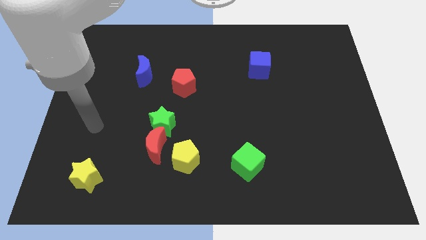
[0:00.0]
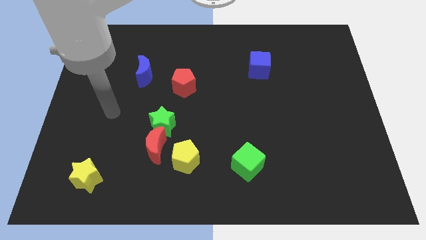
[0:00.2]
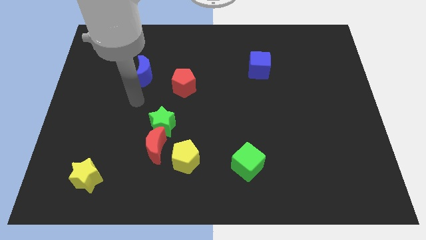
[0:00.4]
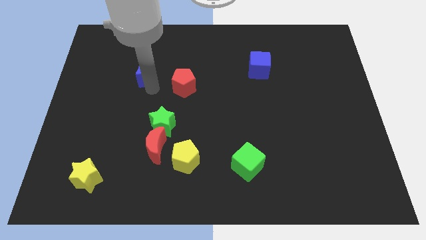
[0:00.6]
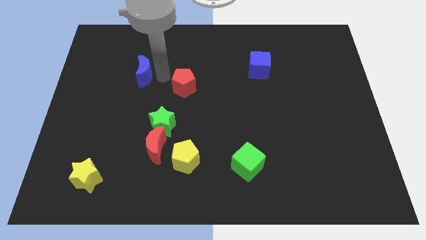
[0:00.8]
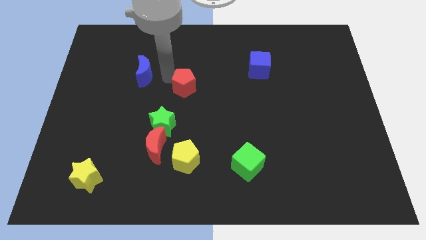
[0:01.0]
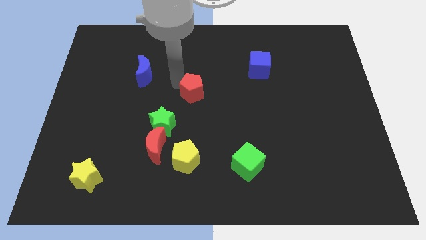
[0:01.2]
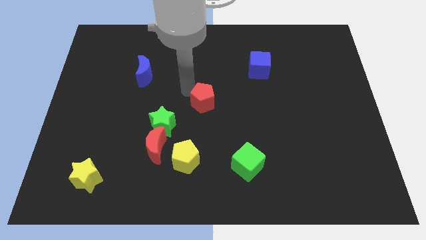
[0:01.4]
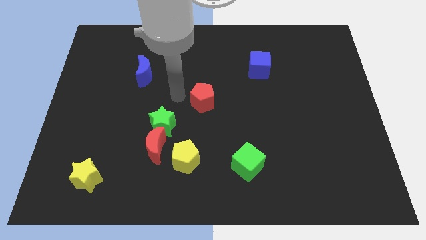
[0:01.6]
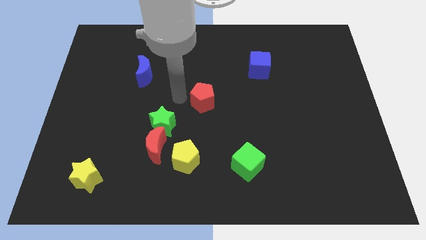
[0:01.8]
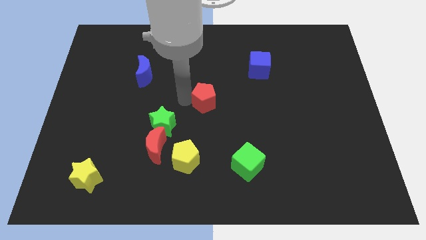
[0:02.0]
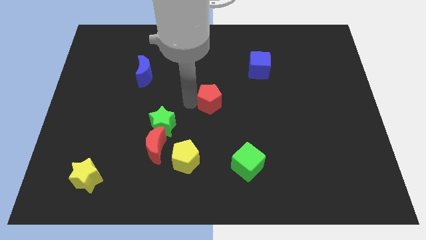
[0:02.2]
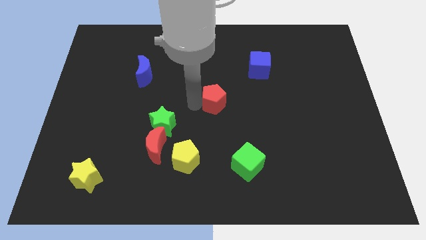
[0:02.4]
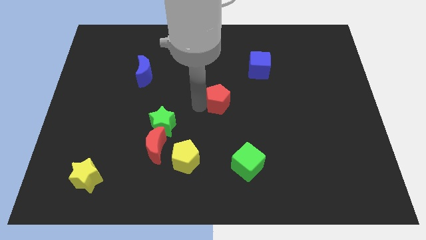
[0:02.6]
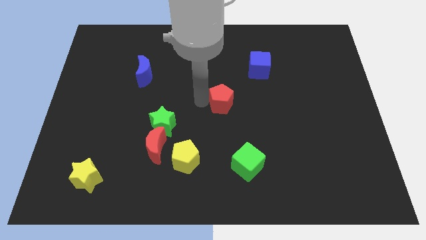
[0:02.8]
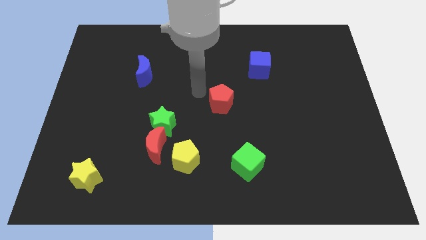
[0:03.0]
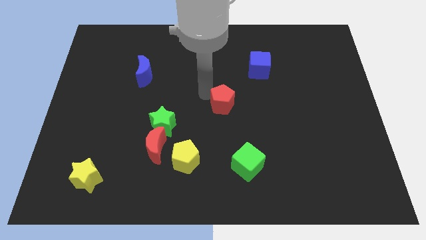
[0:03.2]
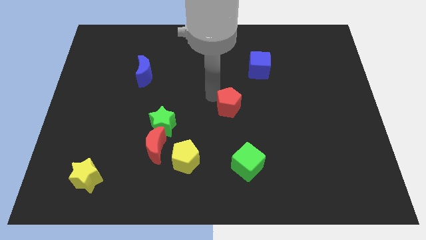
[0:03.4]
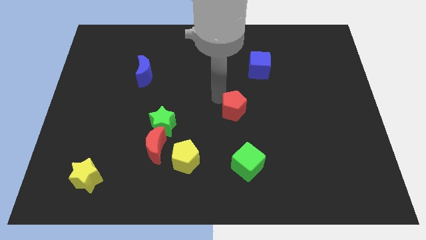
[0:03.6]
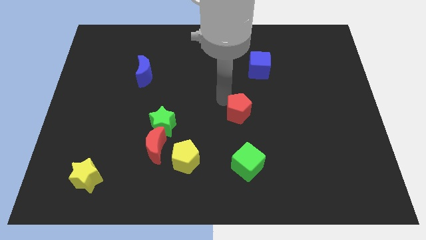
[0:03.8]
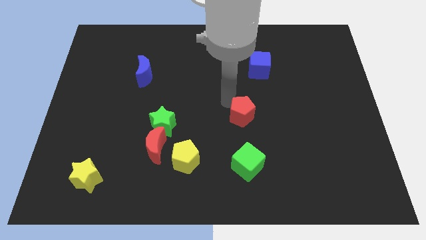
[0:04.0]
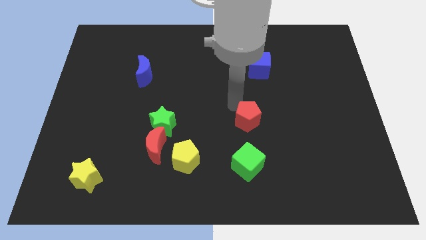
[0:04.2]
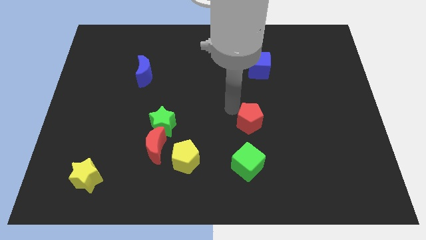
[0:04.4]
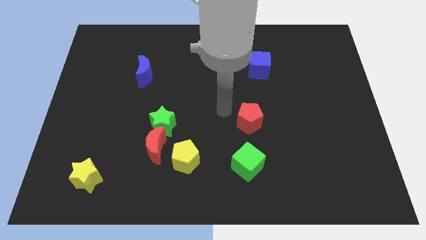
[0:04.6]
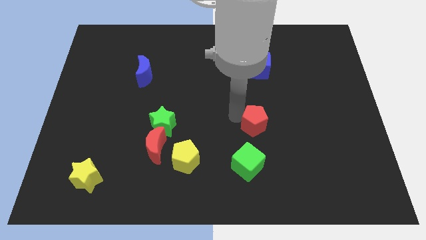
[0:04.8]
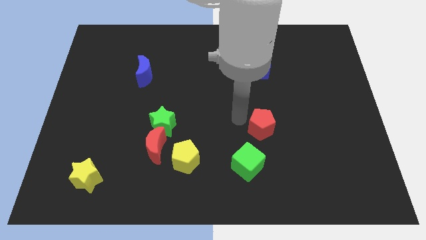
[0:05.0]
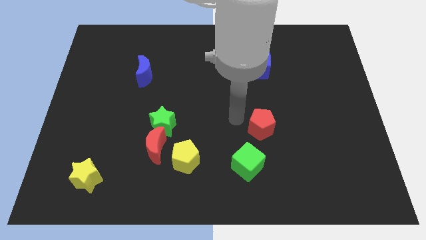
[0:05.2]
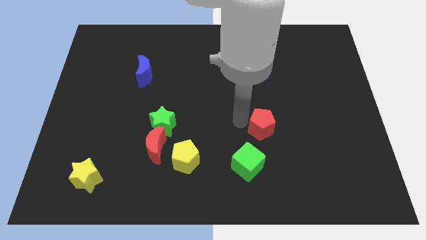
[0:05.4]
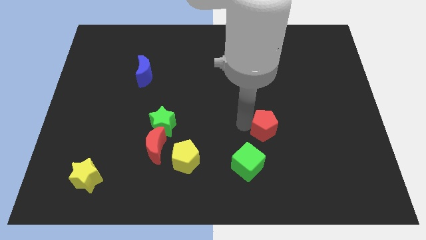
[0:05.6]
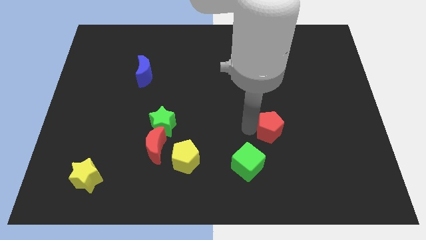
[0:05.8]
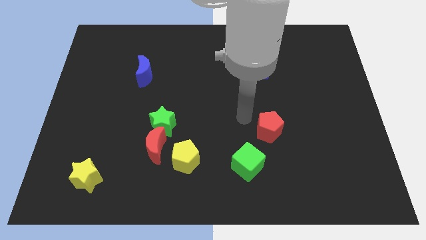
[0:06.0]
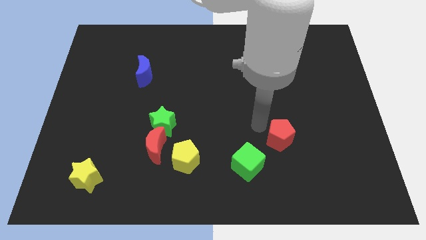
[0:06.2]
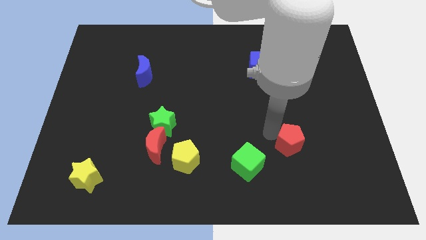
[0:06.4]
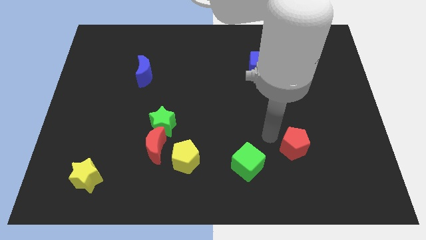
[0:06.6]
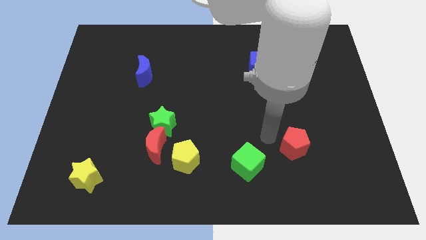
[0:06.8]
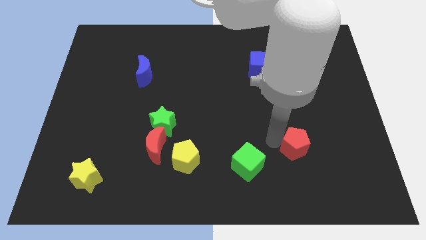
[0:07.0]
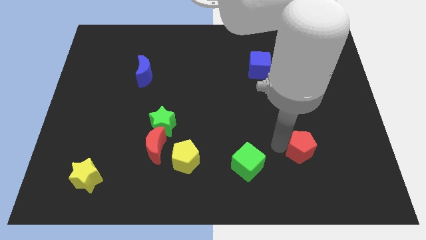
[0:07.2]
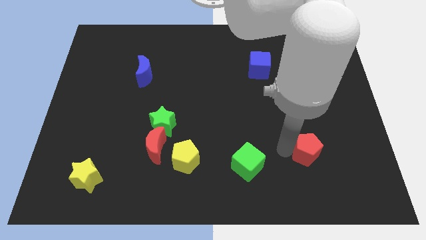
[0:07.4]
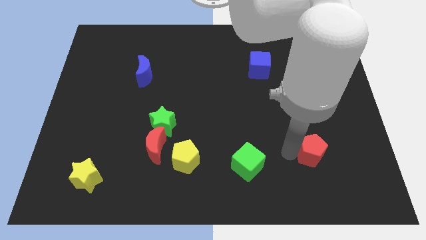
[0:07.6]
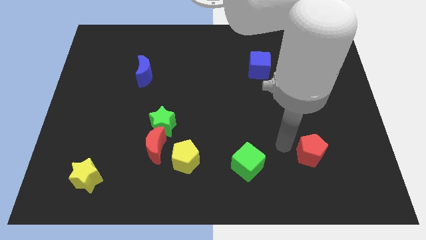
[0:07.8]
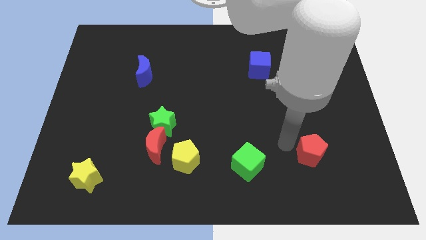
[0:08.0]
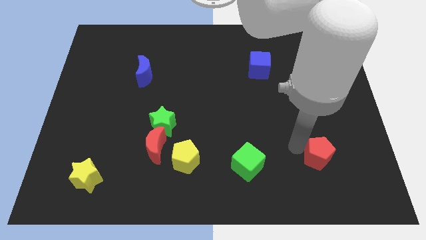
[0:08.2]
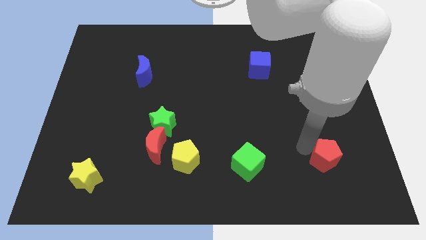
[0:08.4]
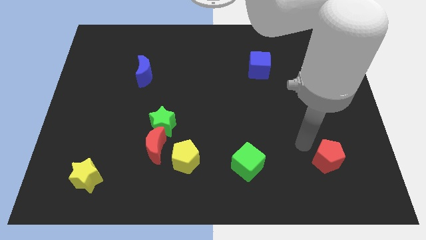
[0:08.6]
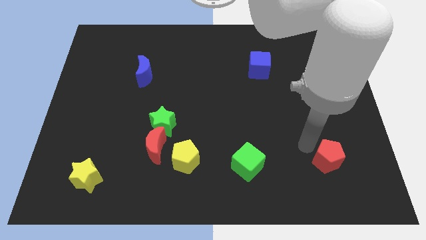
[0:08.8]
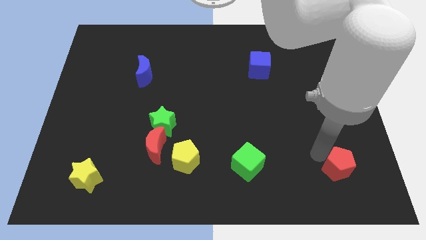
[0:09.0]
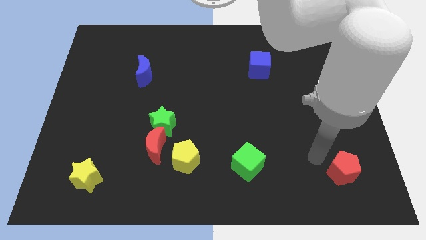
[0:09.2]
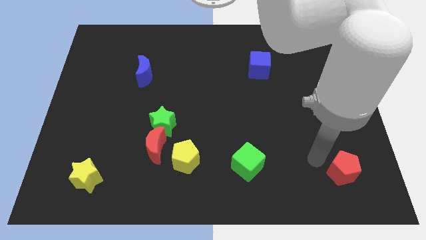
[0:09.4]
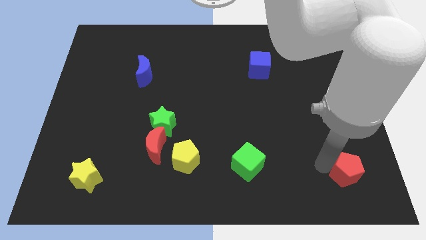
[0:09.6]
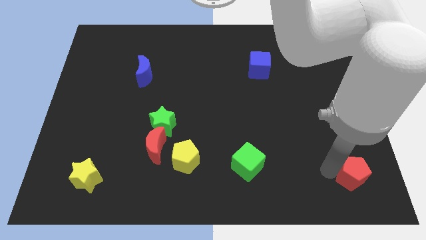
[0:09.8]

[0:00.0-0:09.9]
move the red pentagon to the bottom right

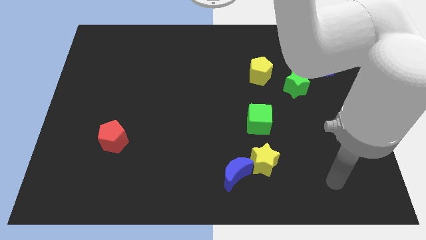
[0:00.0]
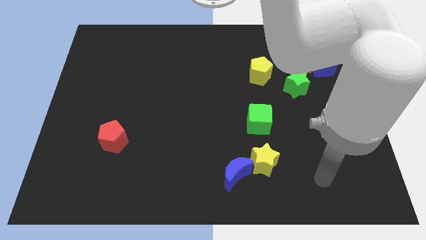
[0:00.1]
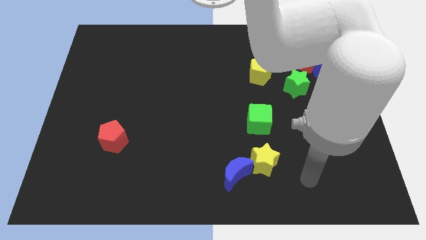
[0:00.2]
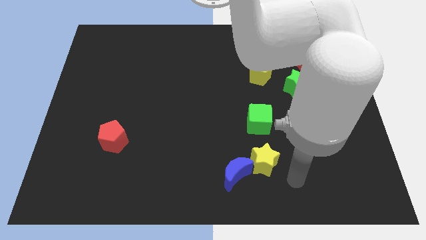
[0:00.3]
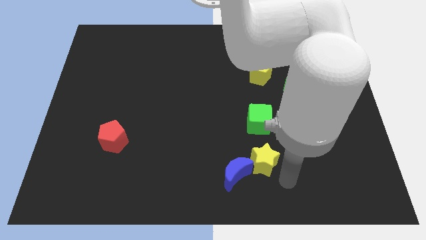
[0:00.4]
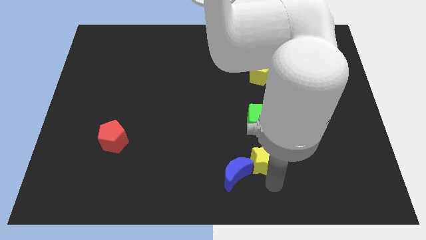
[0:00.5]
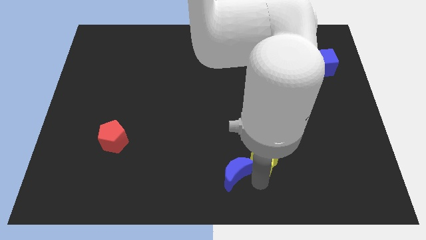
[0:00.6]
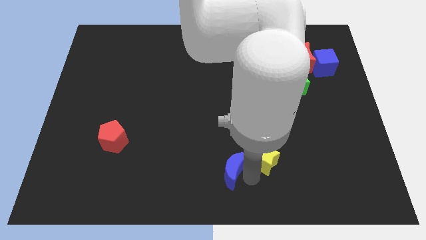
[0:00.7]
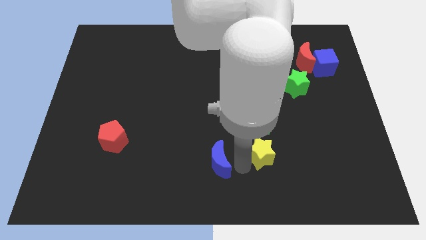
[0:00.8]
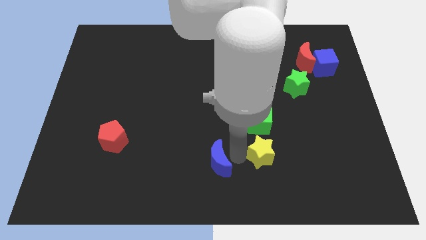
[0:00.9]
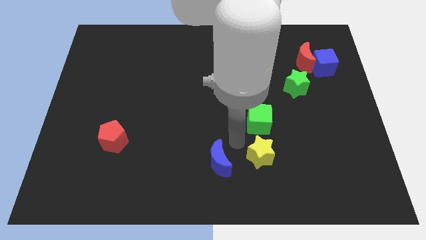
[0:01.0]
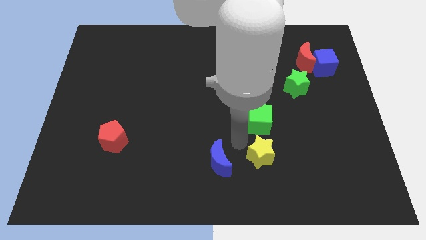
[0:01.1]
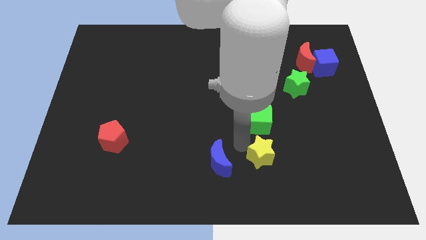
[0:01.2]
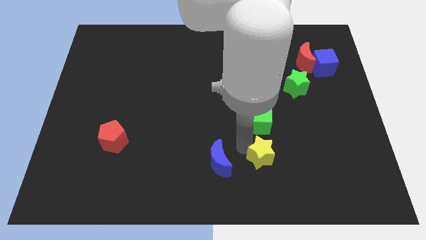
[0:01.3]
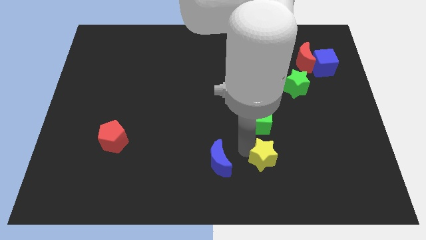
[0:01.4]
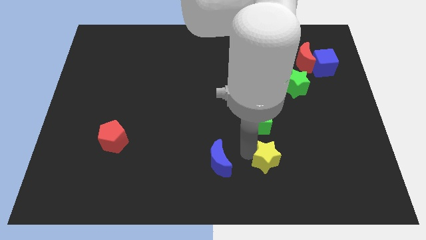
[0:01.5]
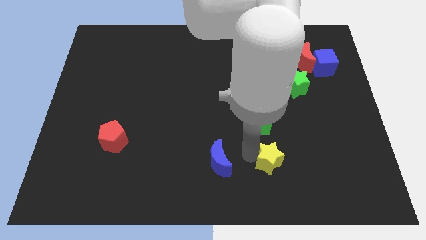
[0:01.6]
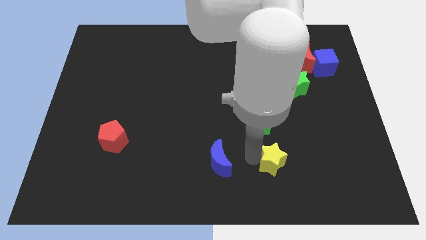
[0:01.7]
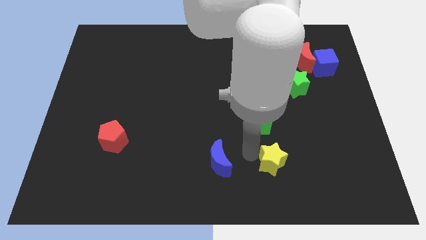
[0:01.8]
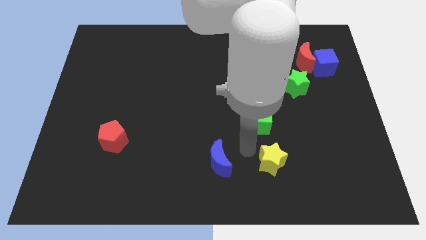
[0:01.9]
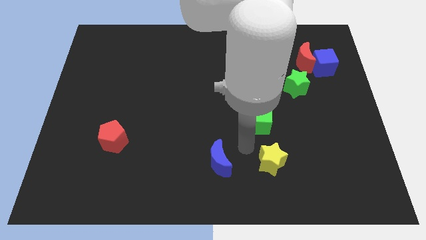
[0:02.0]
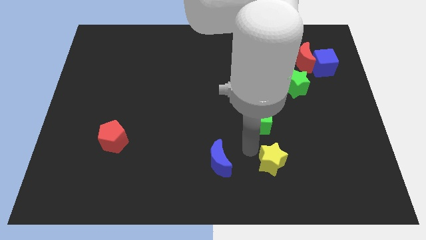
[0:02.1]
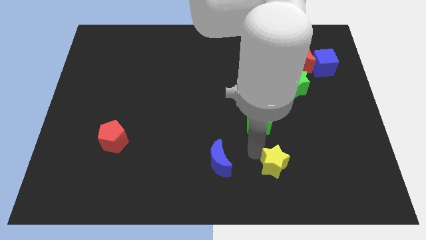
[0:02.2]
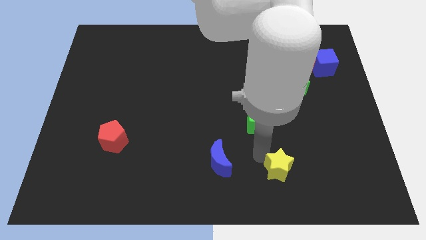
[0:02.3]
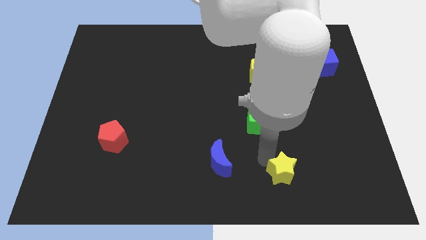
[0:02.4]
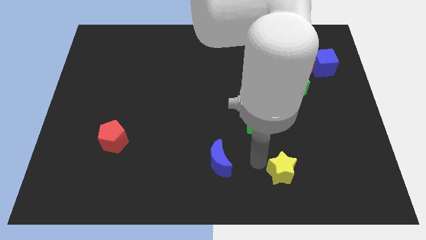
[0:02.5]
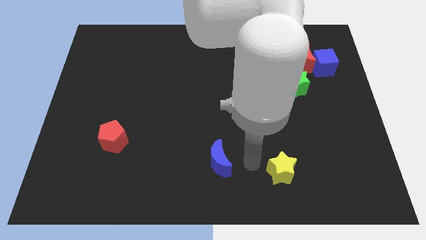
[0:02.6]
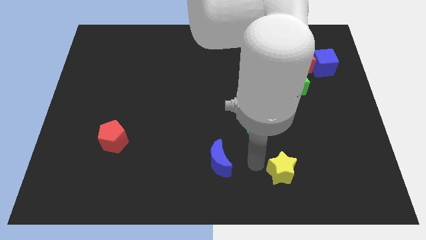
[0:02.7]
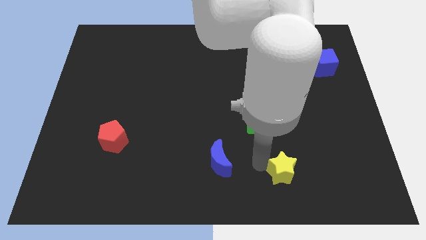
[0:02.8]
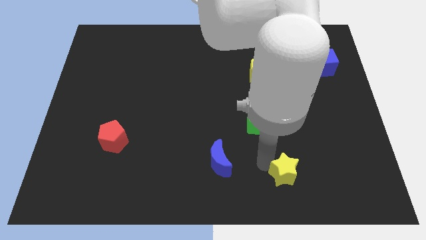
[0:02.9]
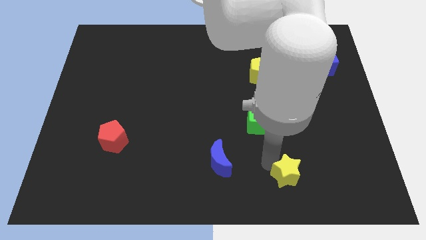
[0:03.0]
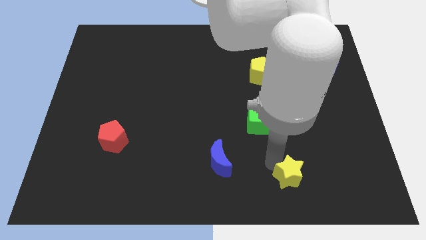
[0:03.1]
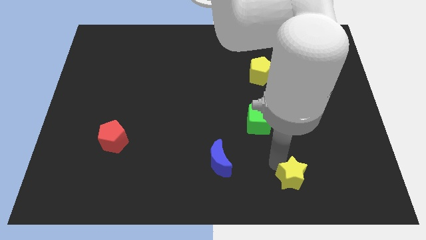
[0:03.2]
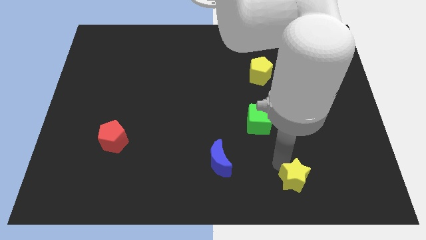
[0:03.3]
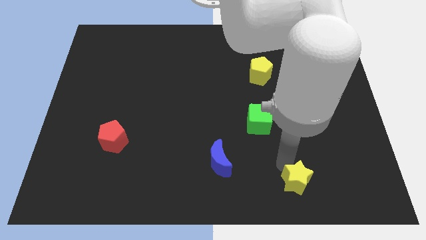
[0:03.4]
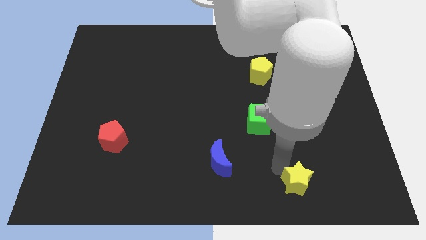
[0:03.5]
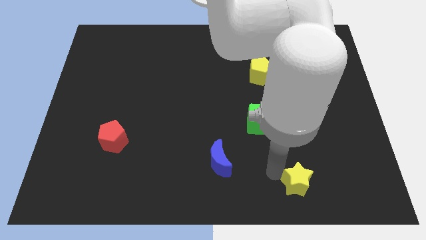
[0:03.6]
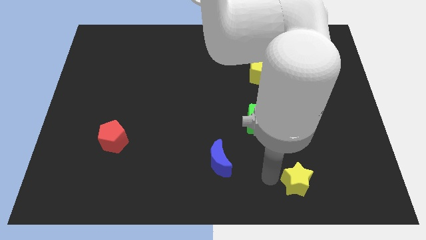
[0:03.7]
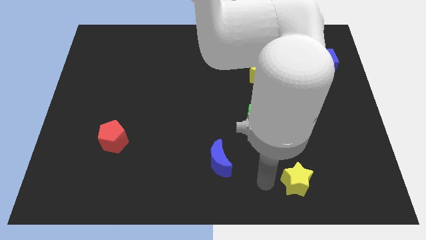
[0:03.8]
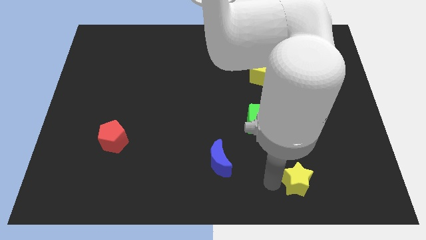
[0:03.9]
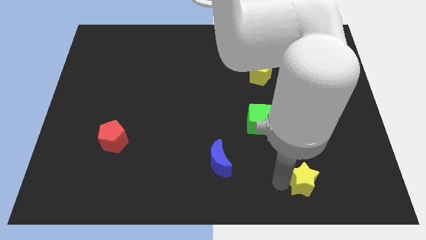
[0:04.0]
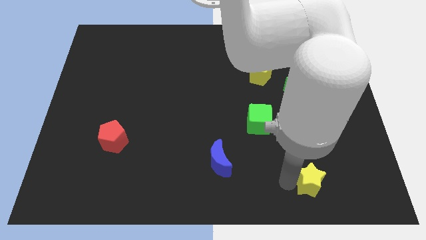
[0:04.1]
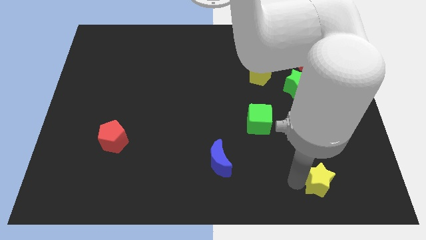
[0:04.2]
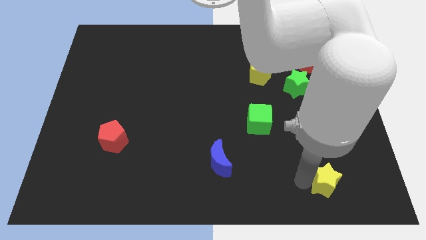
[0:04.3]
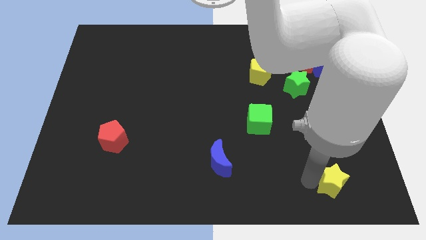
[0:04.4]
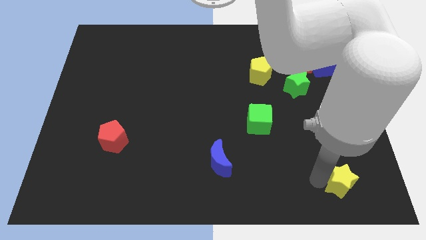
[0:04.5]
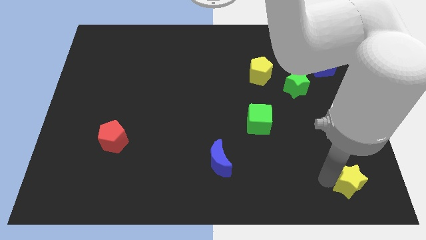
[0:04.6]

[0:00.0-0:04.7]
move the yellow star to the bottom right
